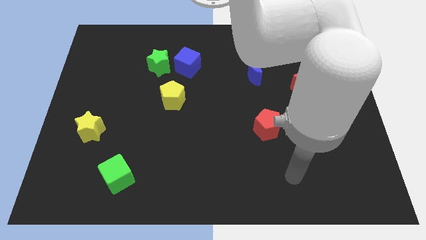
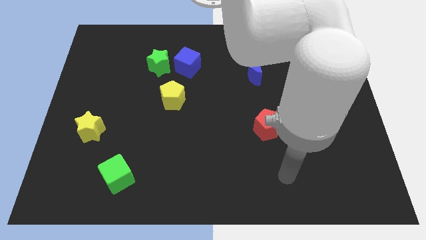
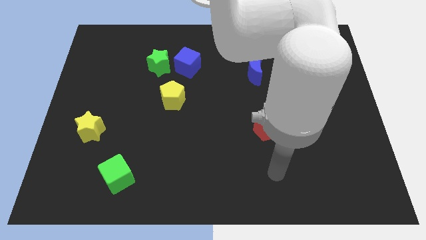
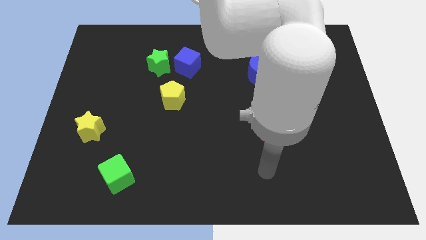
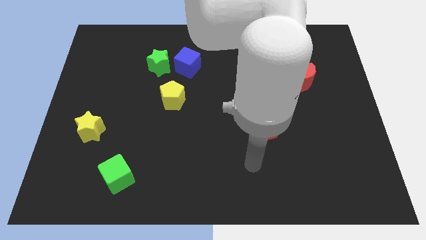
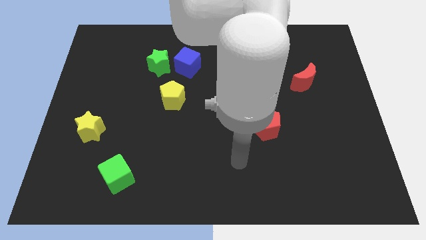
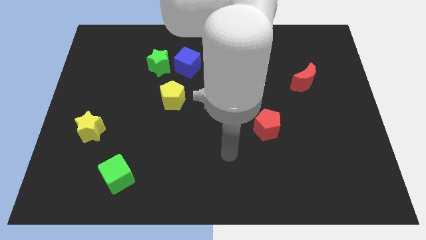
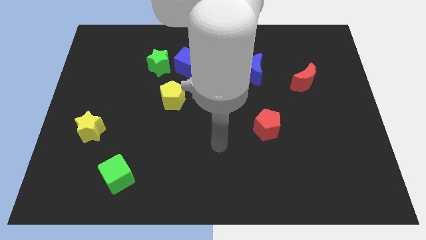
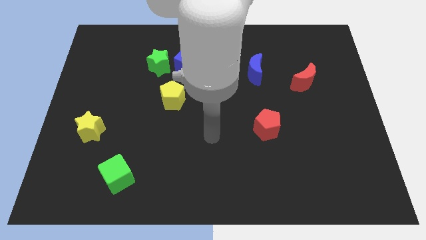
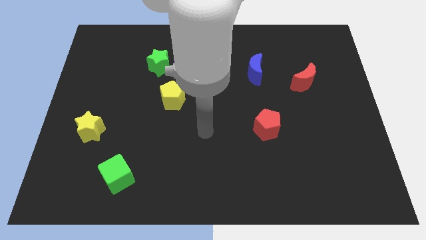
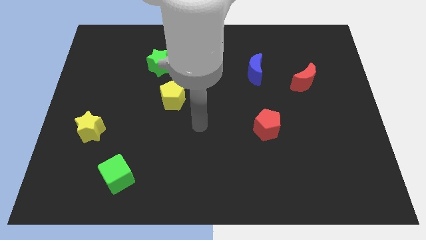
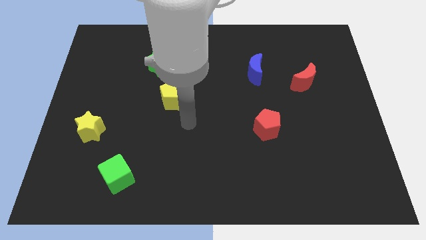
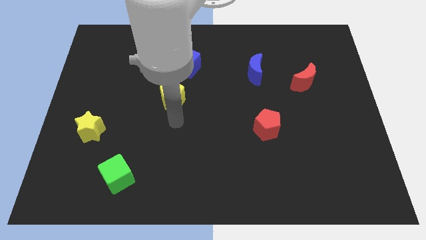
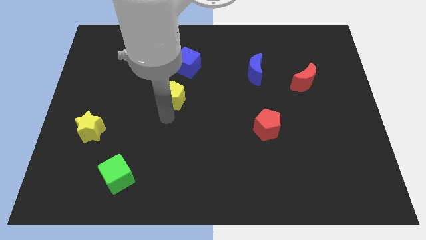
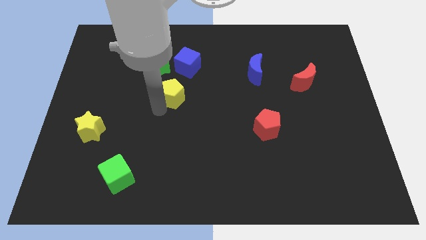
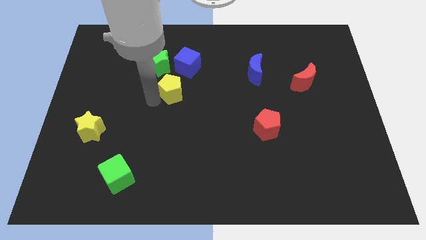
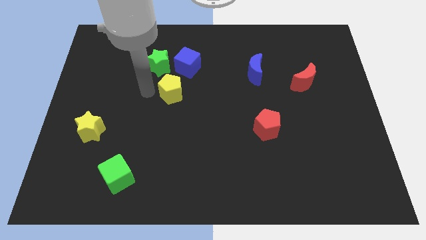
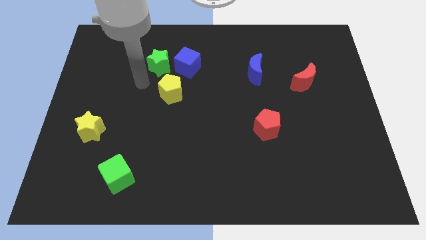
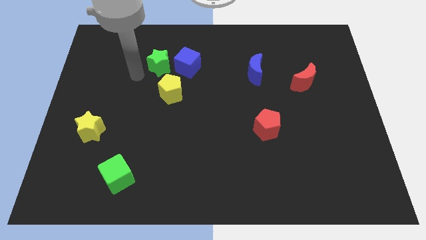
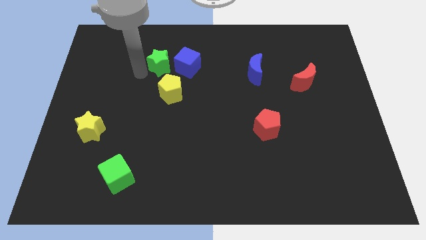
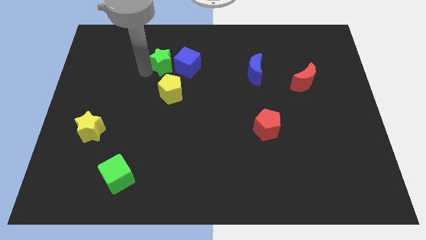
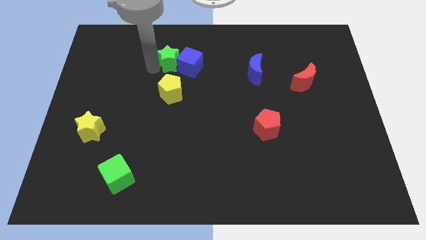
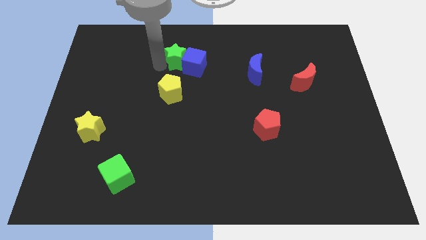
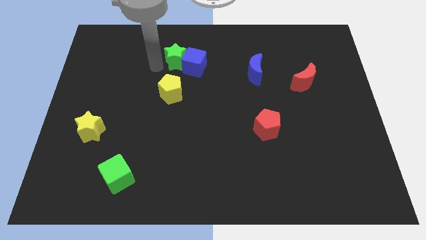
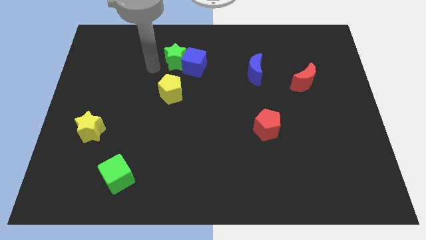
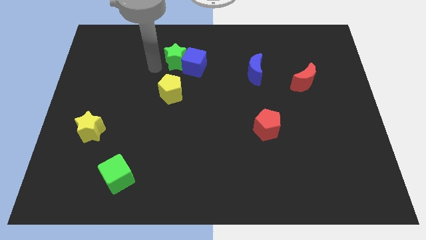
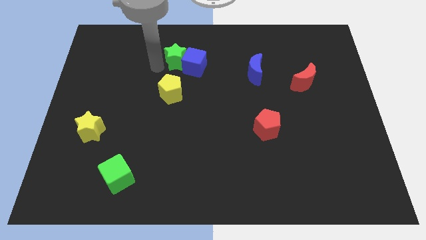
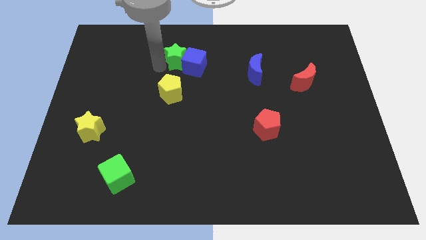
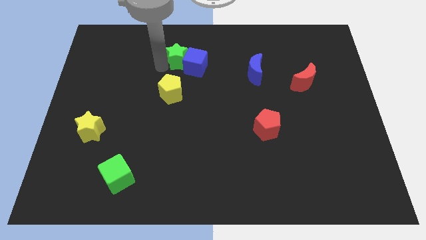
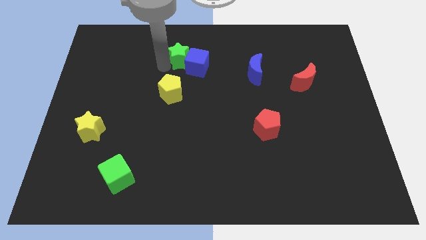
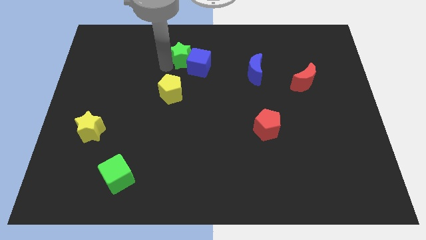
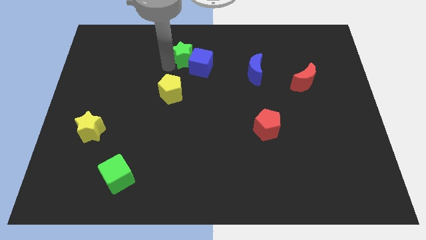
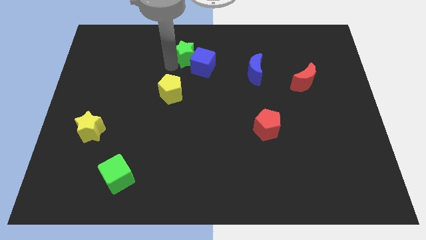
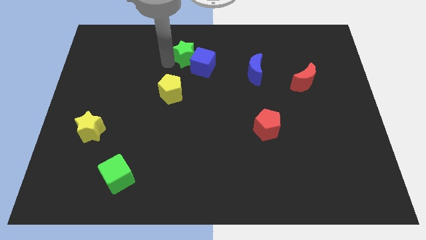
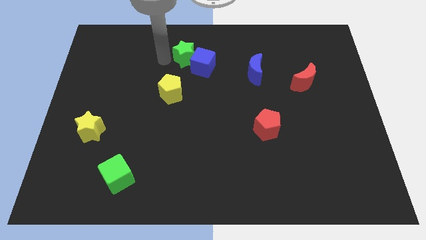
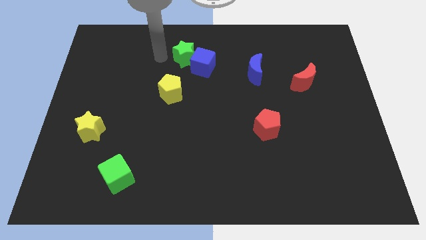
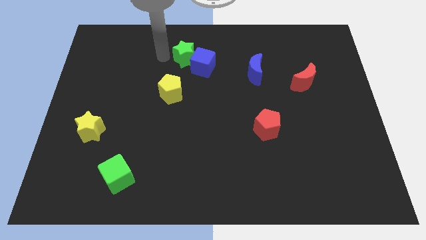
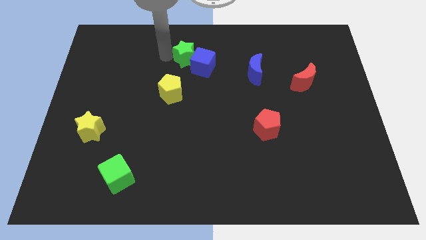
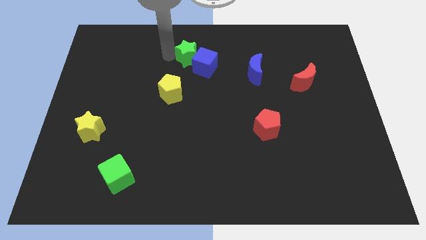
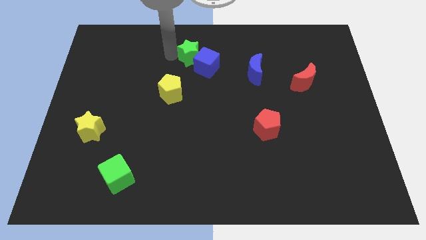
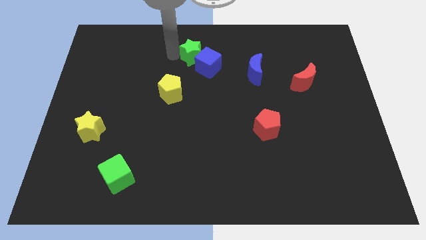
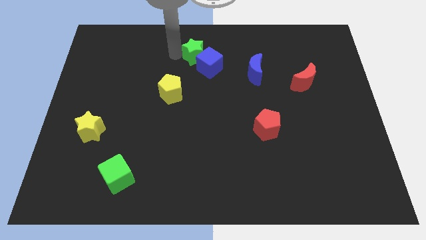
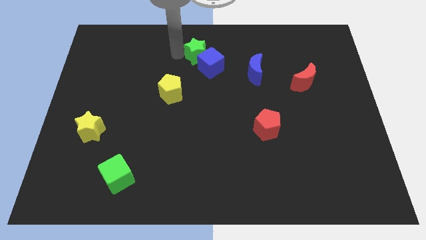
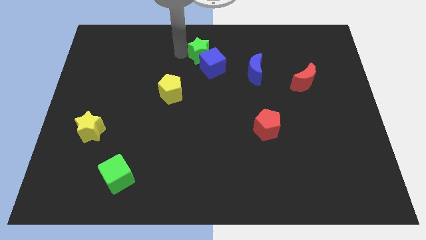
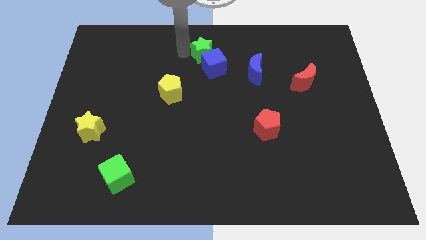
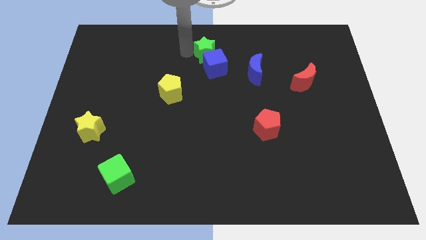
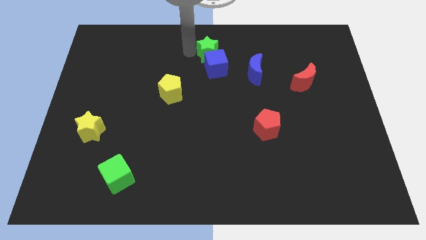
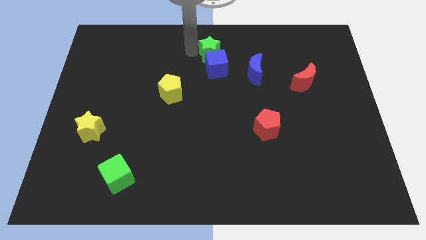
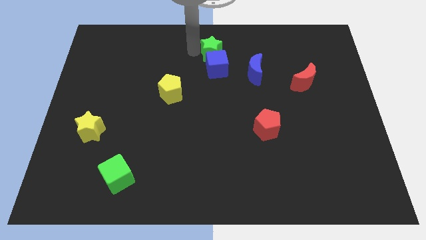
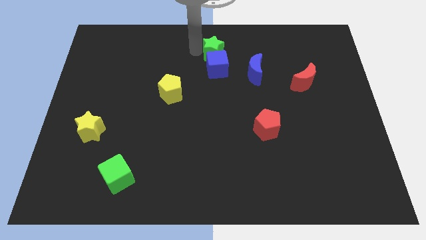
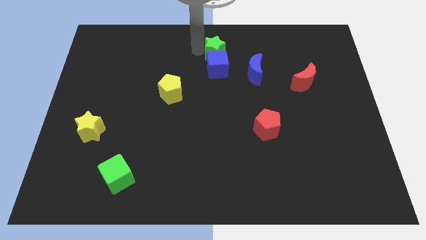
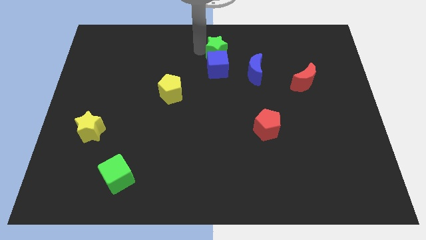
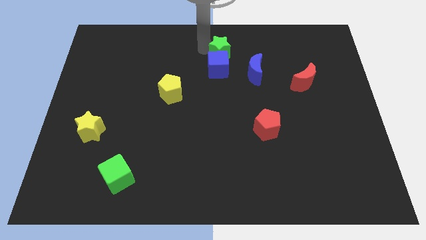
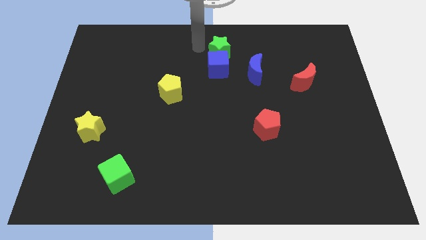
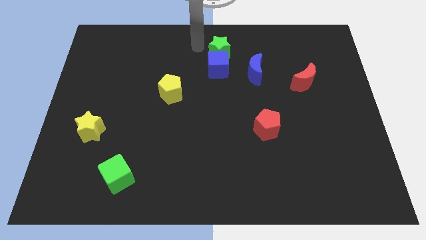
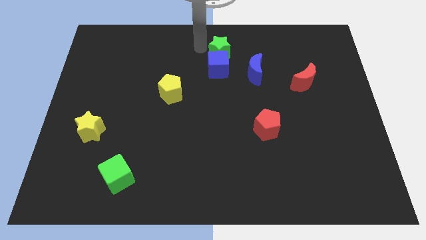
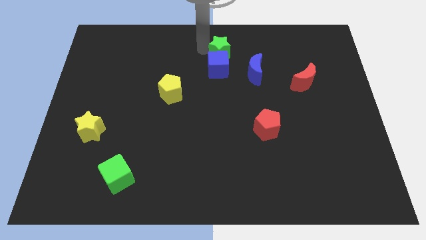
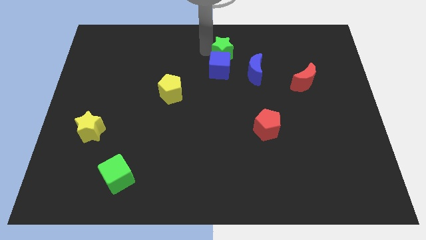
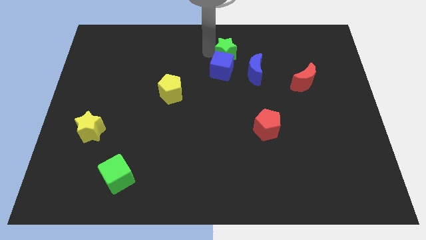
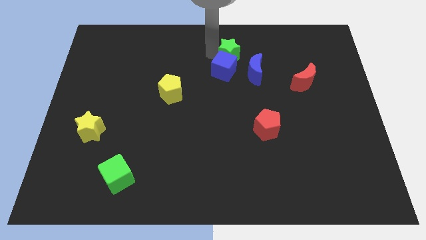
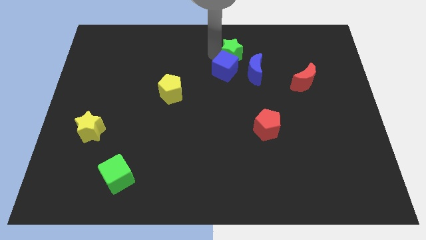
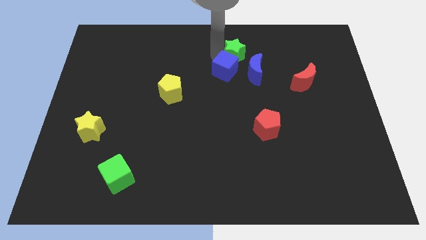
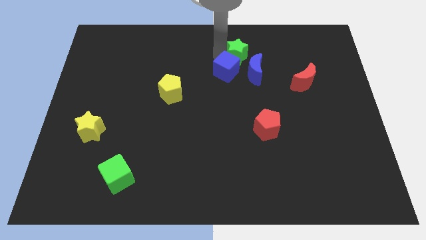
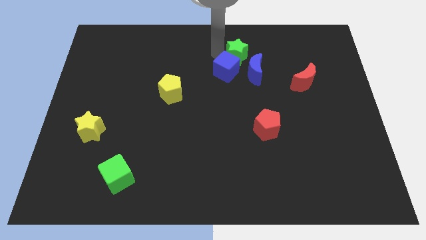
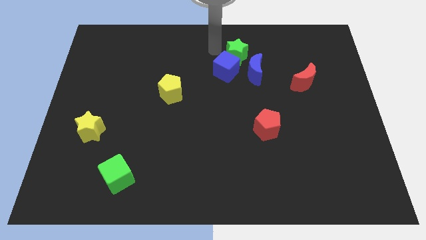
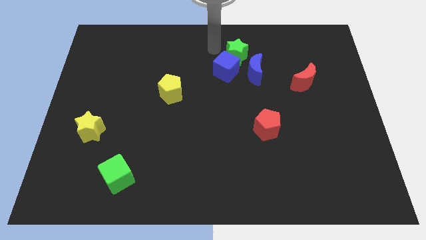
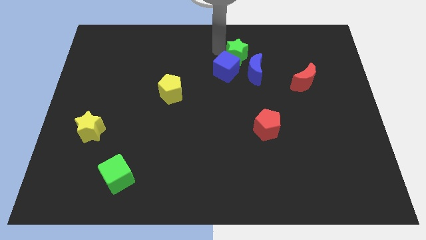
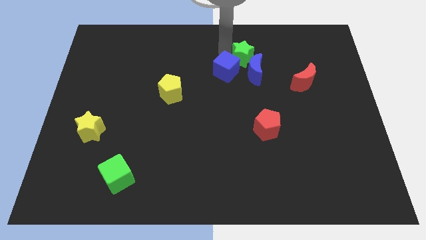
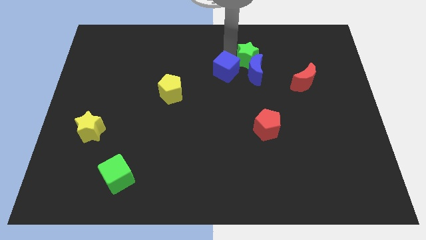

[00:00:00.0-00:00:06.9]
push the green star to the top right of the blue moon

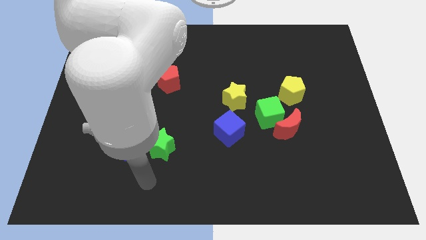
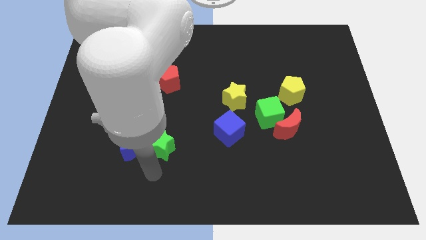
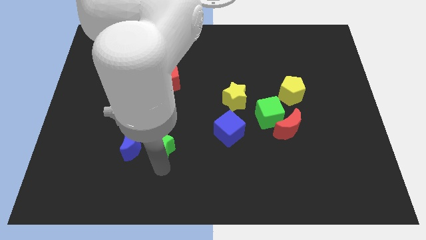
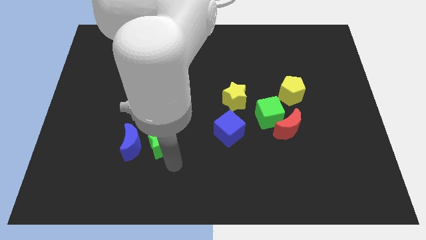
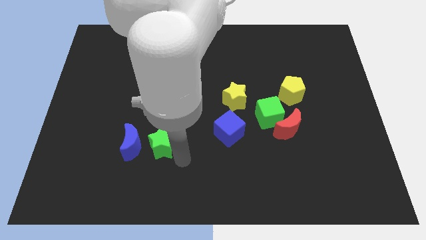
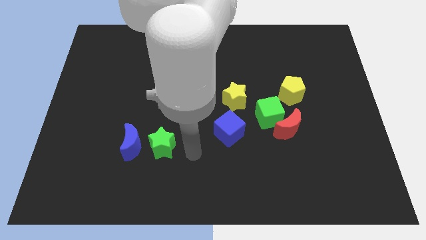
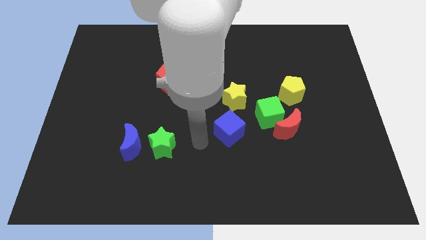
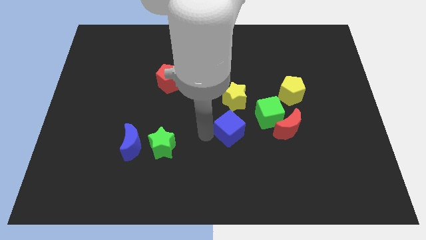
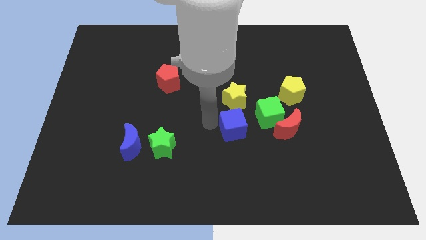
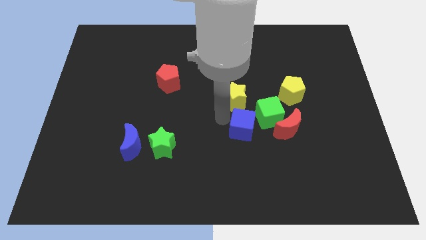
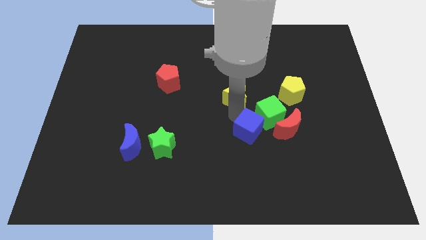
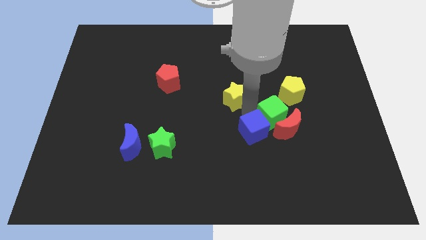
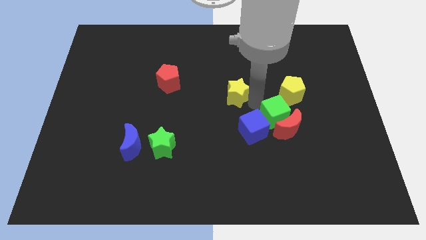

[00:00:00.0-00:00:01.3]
push the green cube to the bottom of the yellow pentagon
